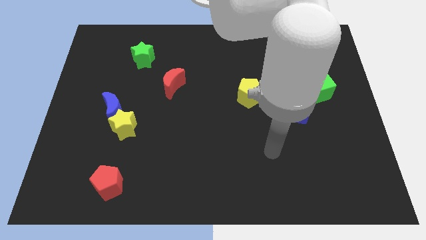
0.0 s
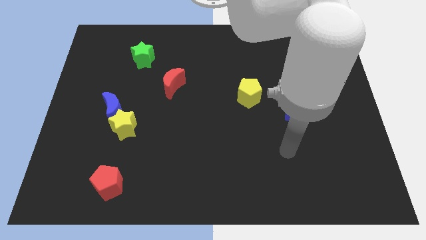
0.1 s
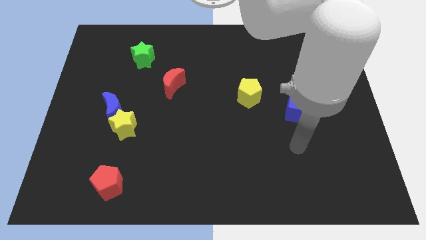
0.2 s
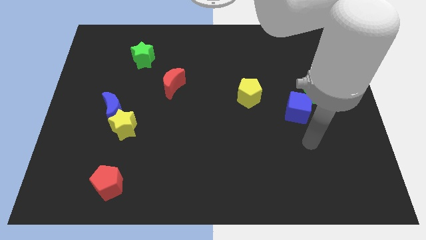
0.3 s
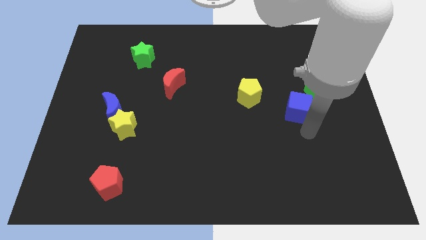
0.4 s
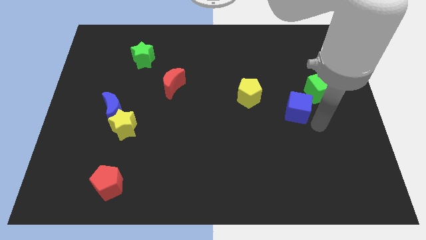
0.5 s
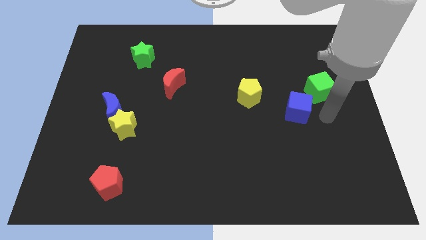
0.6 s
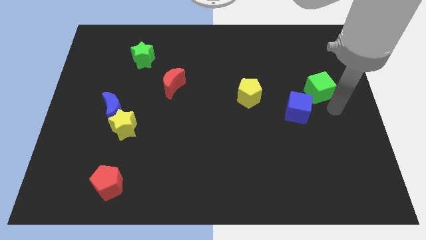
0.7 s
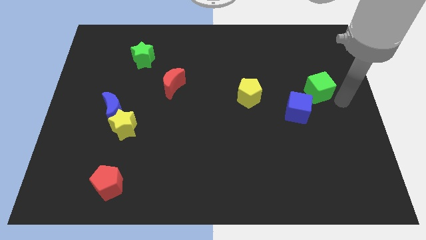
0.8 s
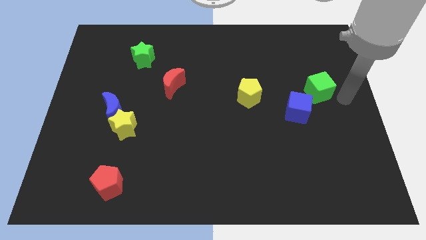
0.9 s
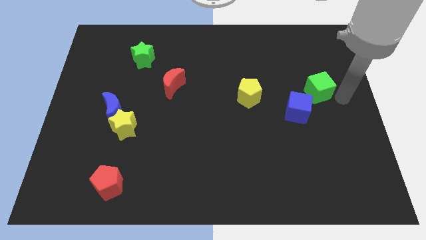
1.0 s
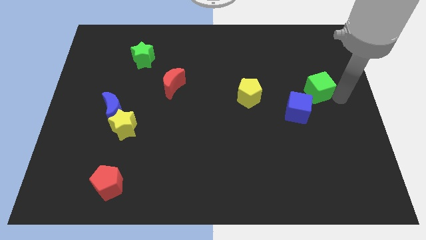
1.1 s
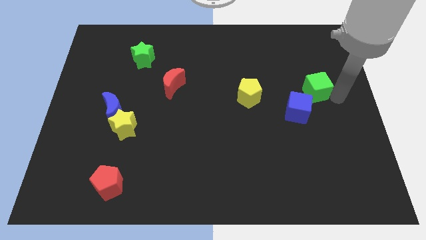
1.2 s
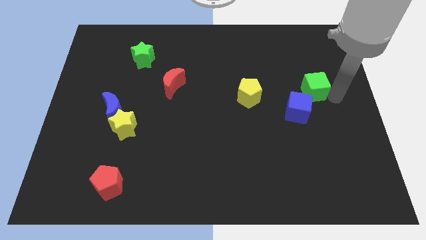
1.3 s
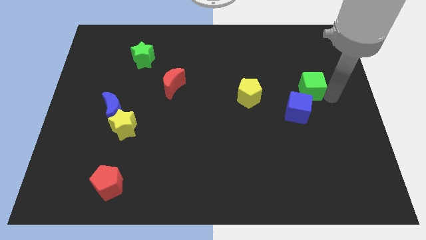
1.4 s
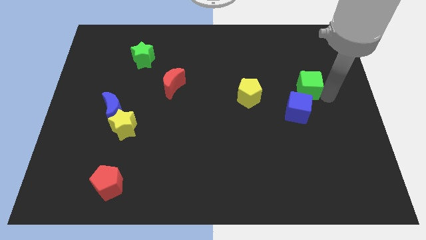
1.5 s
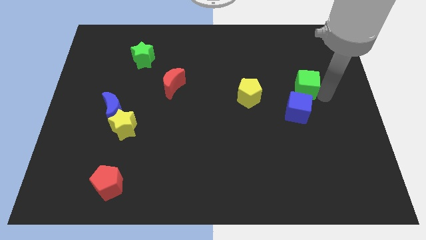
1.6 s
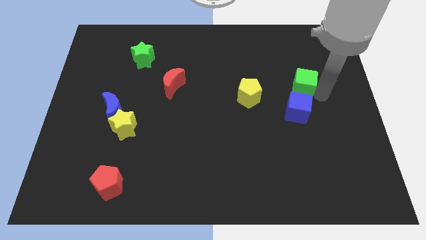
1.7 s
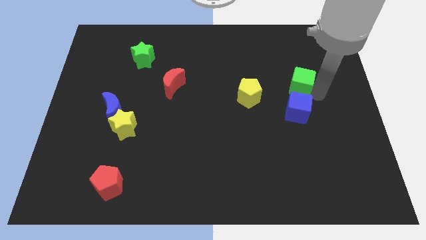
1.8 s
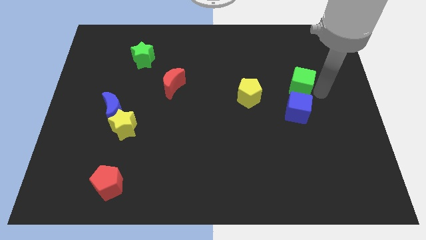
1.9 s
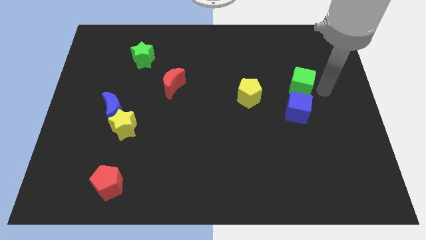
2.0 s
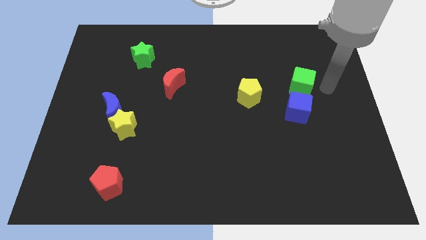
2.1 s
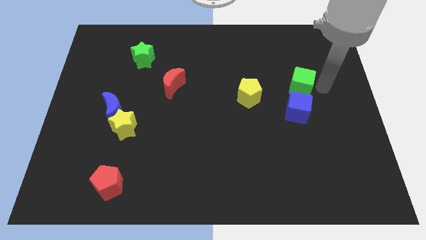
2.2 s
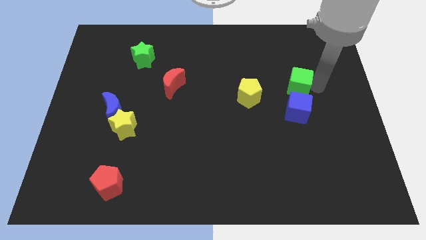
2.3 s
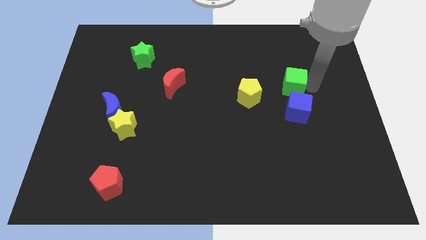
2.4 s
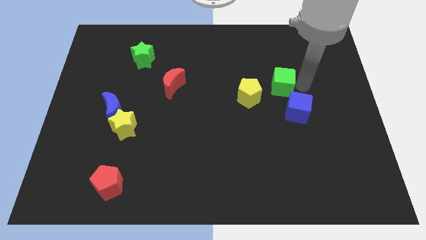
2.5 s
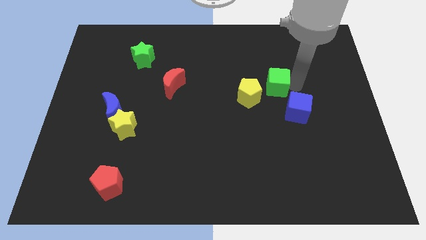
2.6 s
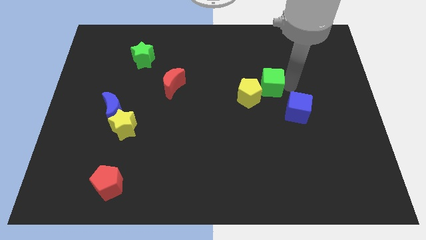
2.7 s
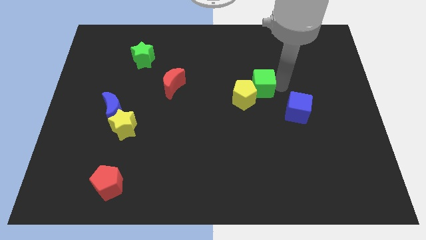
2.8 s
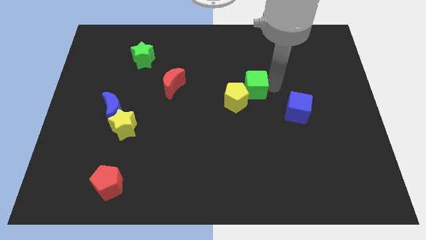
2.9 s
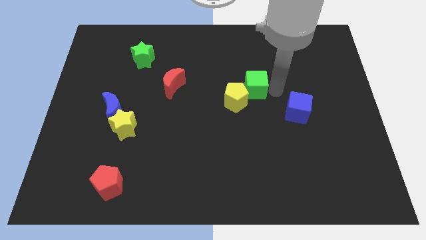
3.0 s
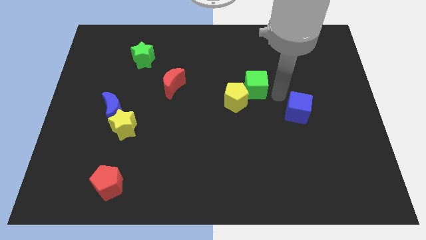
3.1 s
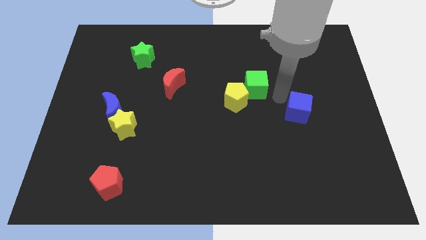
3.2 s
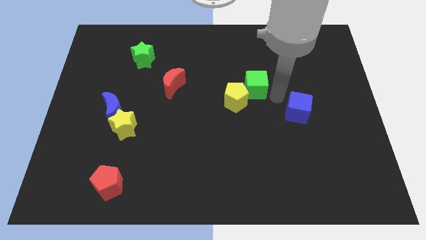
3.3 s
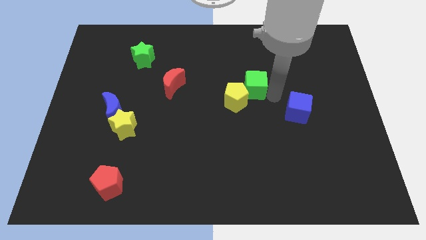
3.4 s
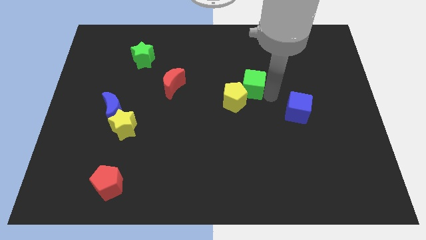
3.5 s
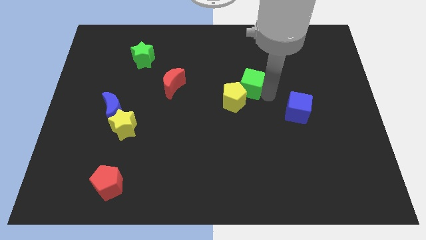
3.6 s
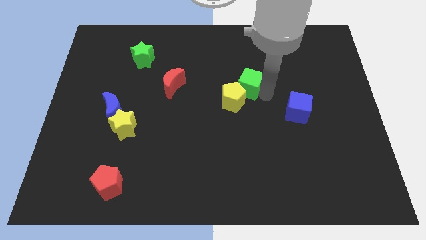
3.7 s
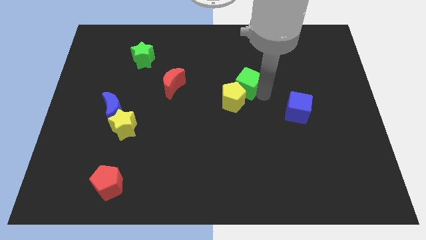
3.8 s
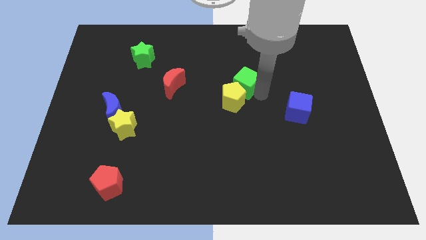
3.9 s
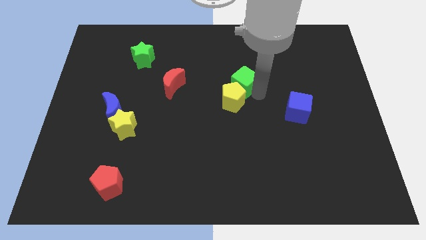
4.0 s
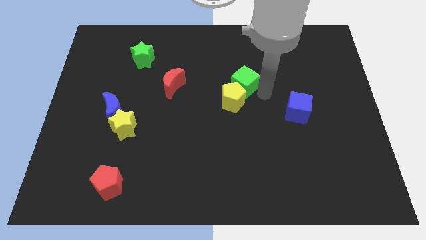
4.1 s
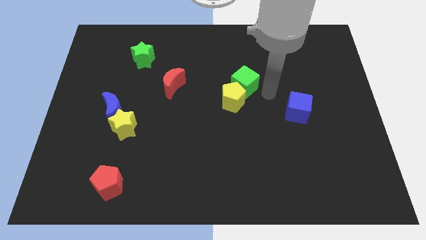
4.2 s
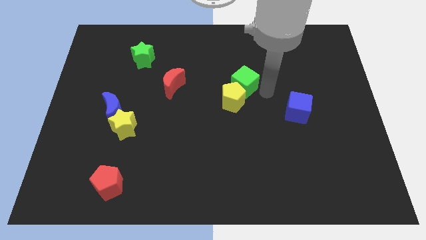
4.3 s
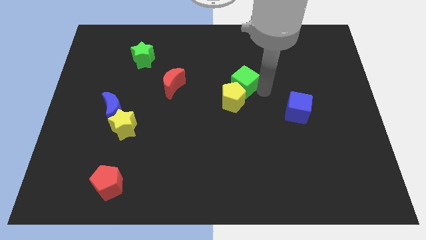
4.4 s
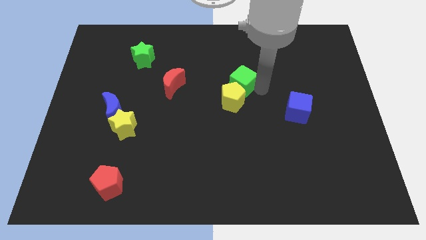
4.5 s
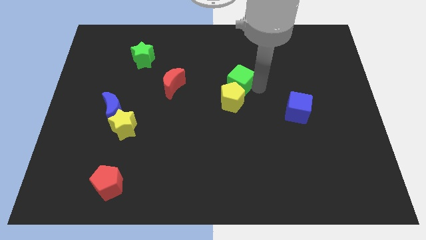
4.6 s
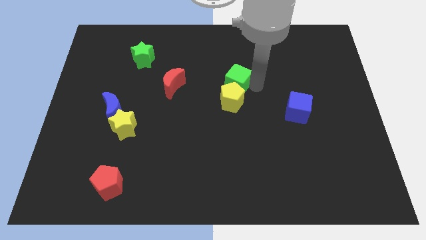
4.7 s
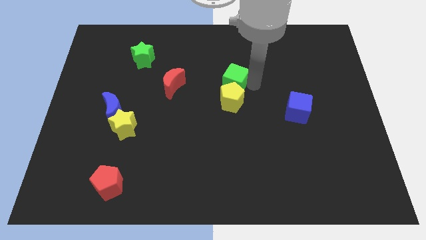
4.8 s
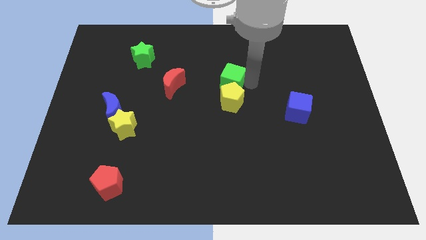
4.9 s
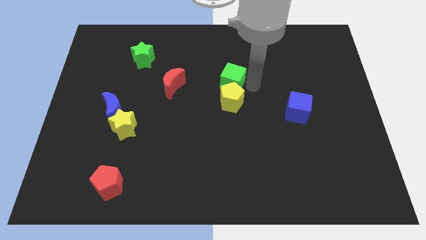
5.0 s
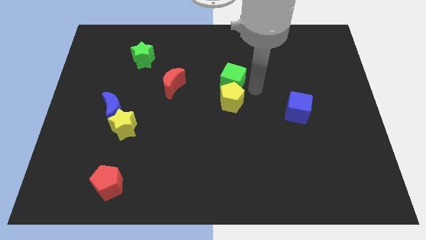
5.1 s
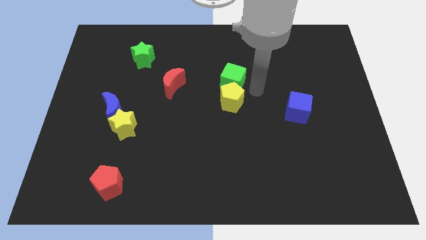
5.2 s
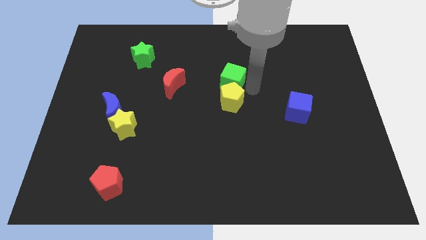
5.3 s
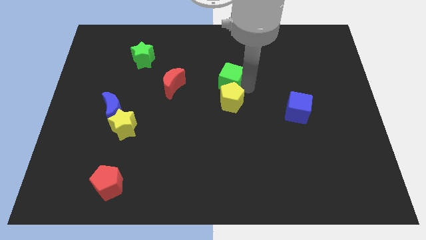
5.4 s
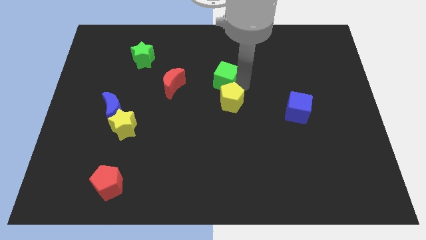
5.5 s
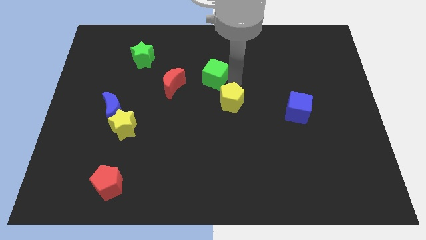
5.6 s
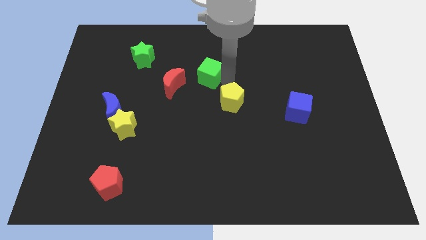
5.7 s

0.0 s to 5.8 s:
put the green cube to the top right side of the red moon

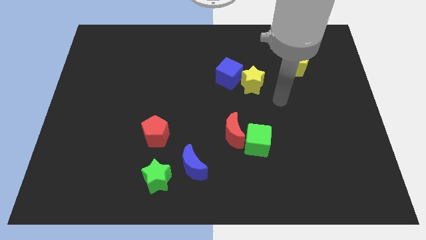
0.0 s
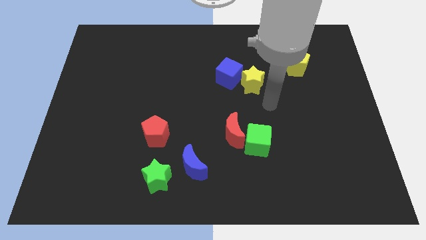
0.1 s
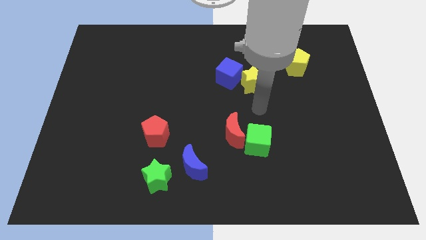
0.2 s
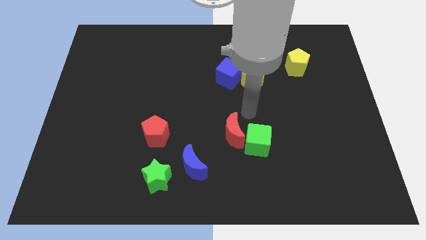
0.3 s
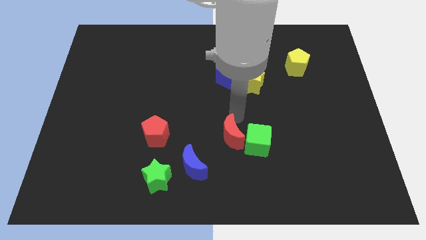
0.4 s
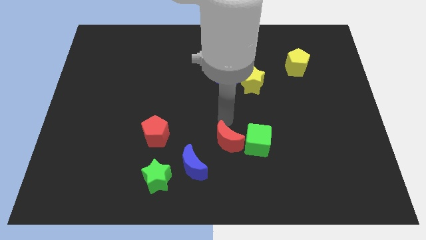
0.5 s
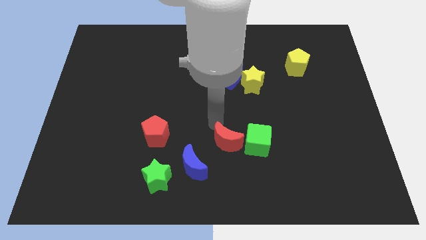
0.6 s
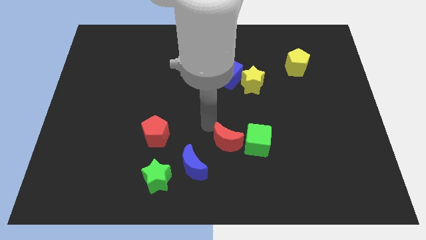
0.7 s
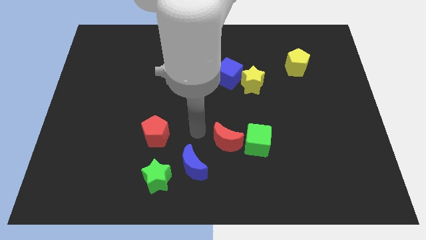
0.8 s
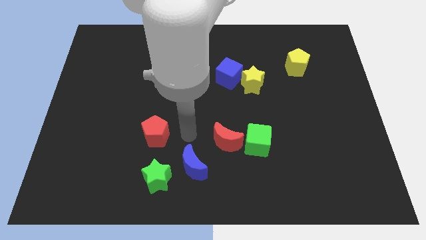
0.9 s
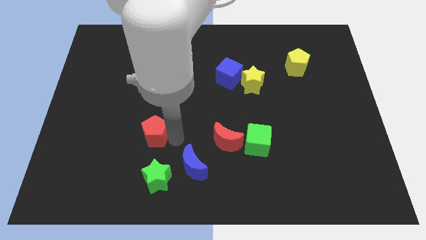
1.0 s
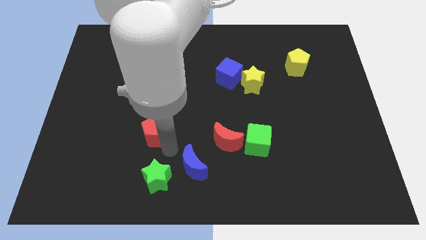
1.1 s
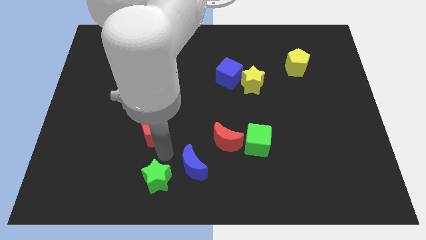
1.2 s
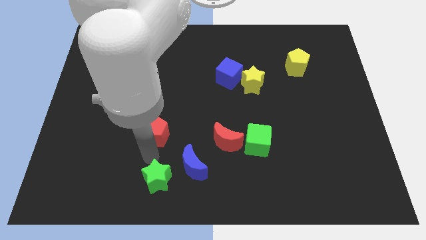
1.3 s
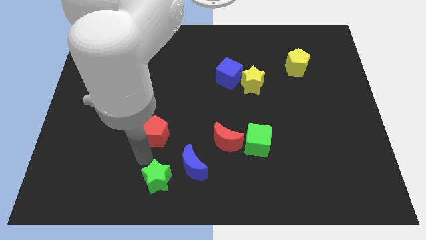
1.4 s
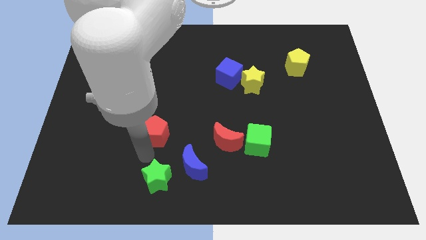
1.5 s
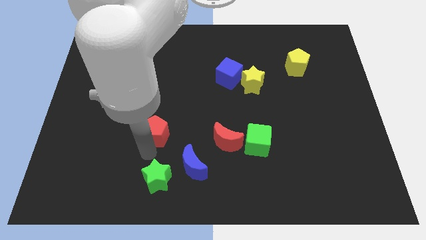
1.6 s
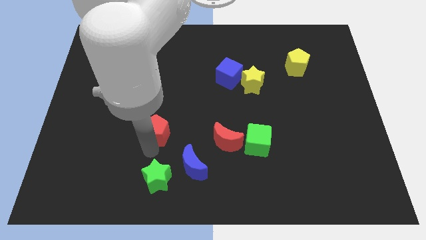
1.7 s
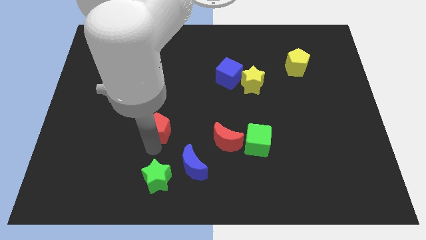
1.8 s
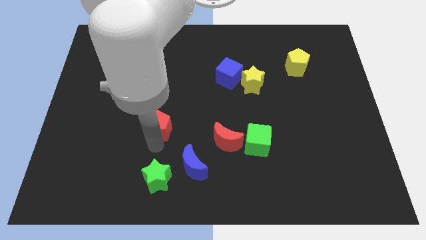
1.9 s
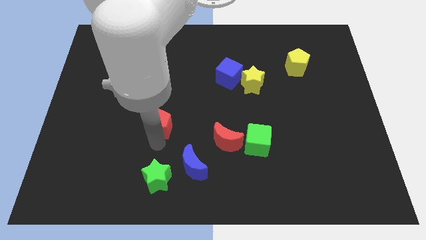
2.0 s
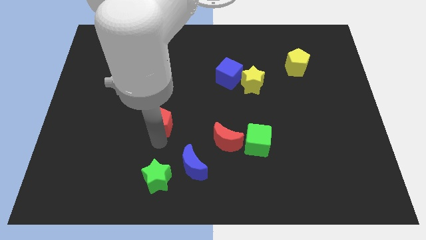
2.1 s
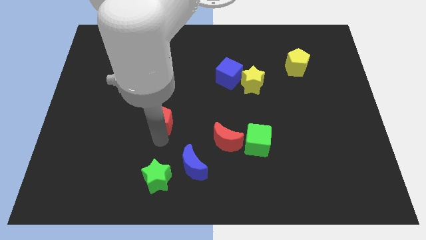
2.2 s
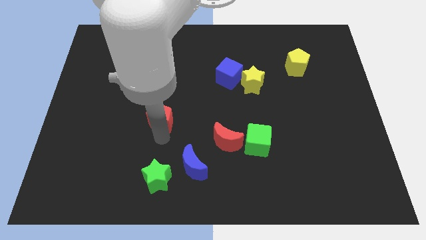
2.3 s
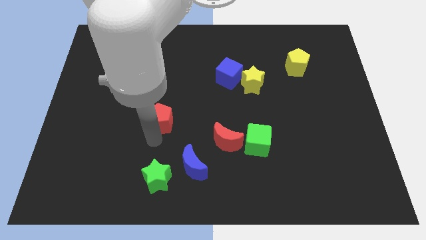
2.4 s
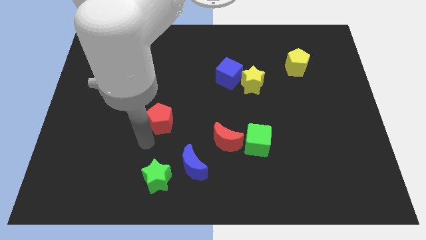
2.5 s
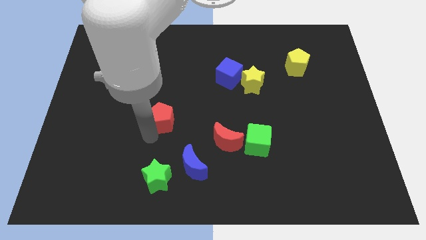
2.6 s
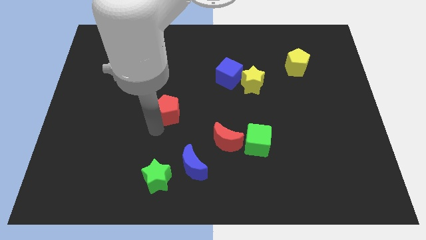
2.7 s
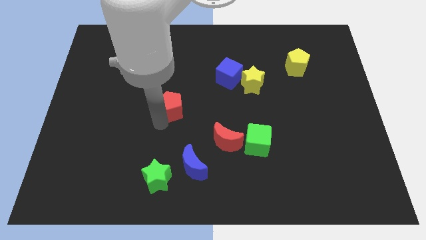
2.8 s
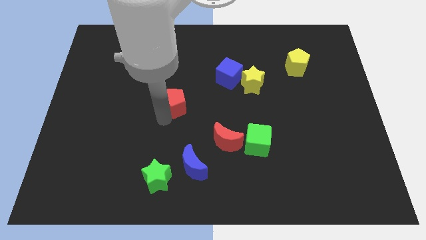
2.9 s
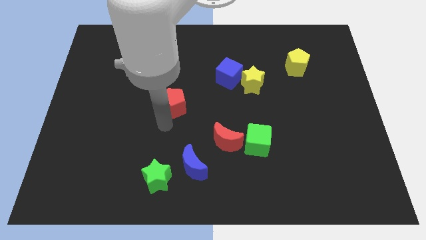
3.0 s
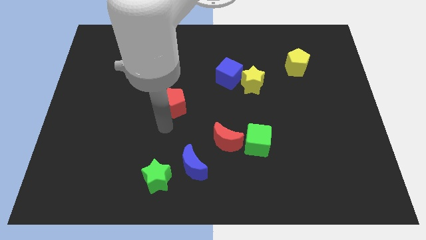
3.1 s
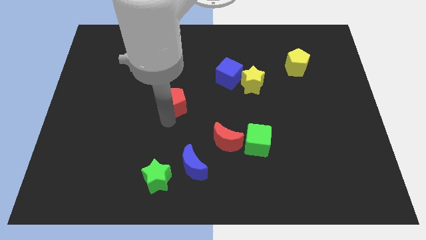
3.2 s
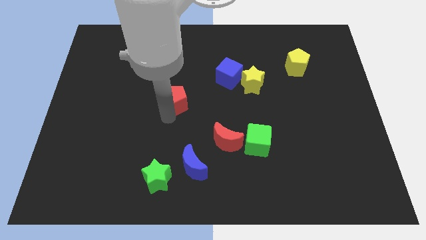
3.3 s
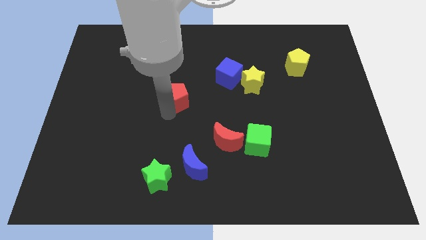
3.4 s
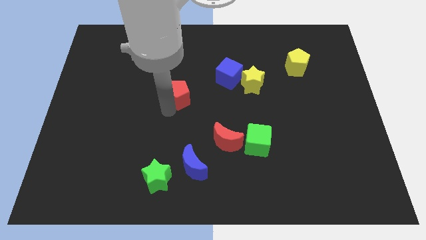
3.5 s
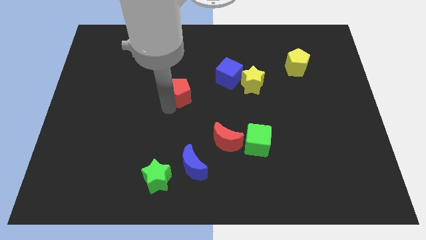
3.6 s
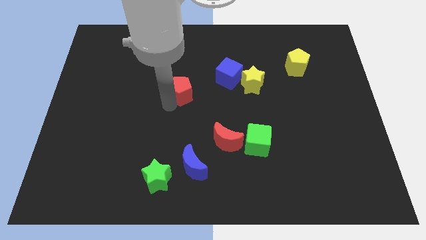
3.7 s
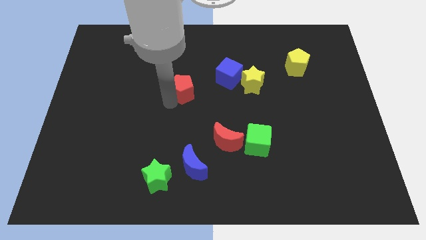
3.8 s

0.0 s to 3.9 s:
put the red pentagon to the left side of the blue cube
